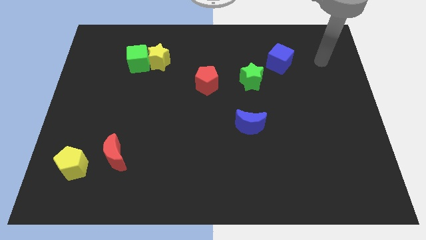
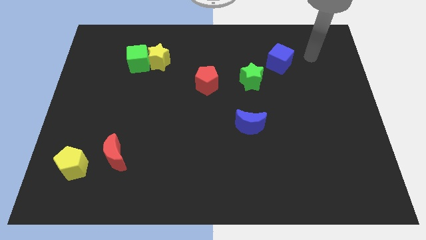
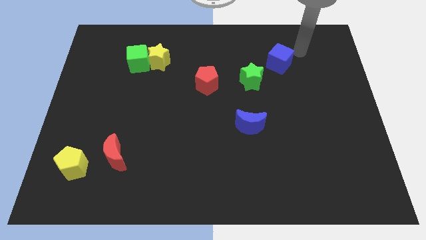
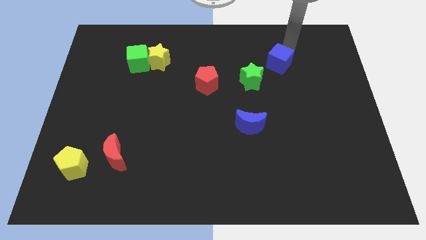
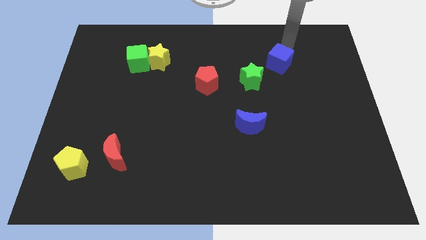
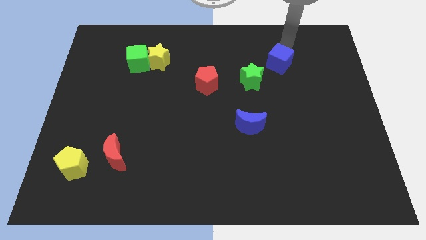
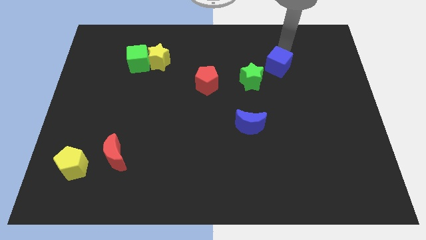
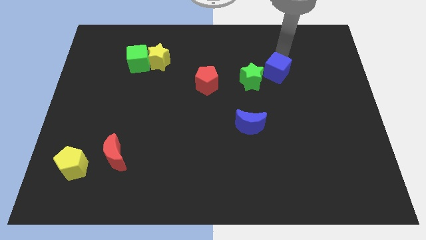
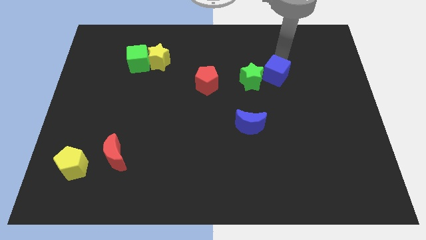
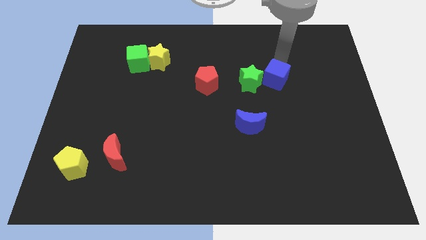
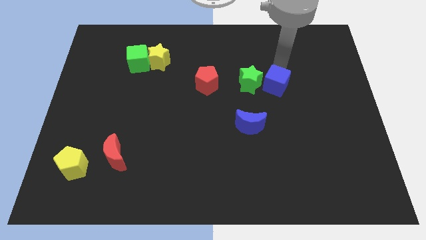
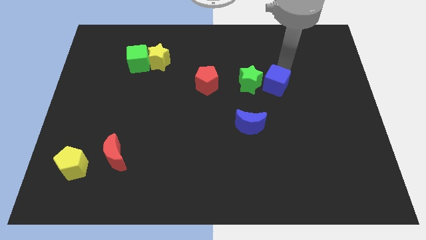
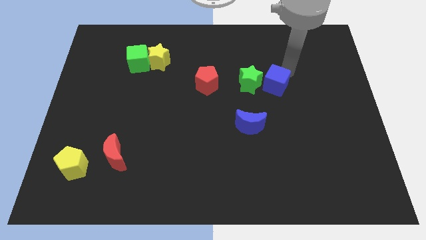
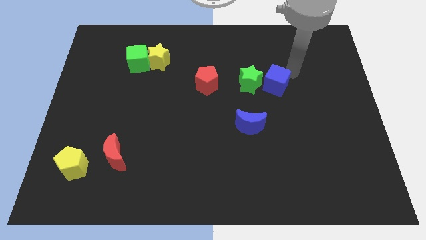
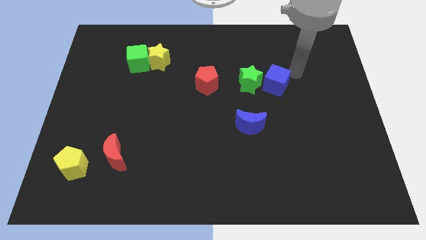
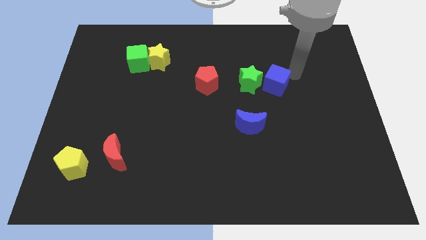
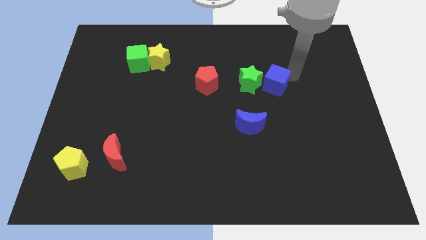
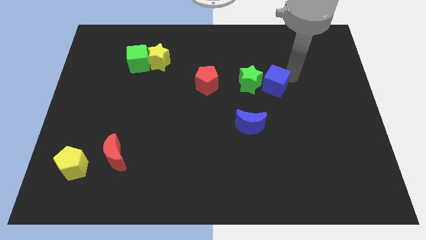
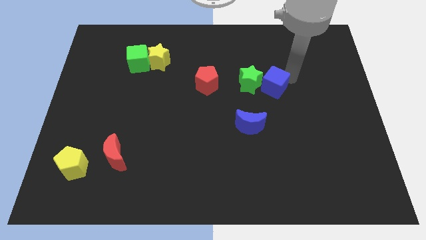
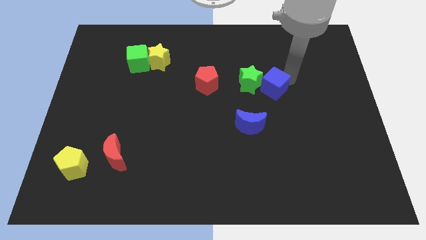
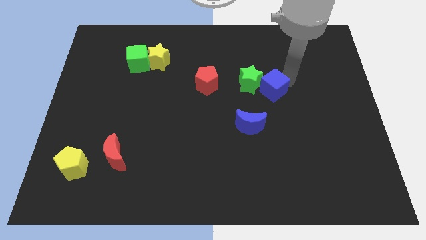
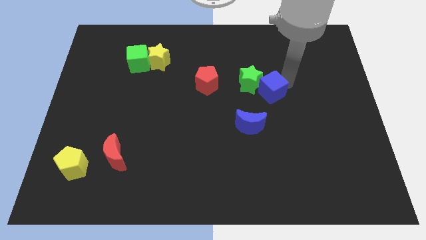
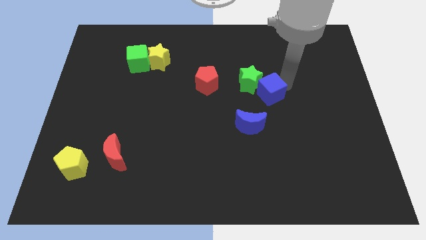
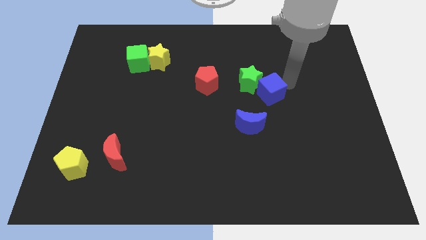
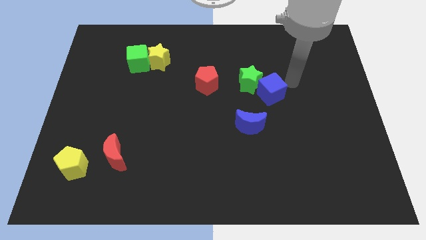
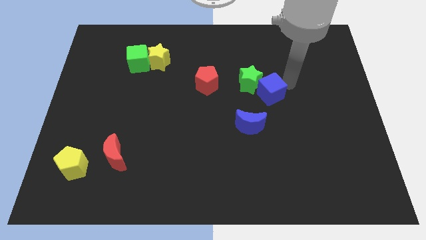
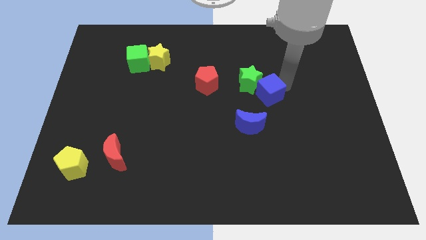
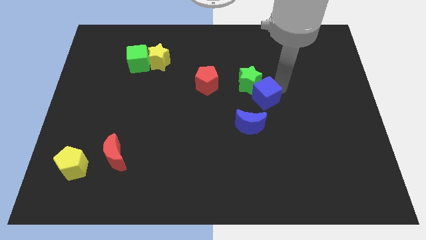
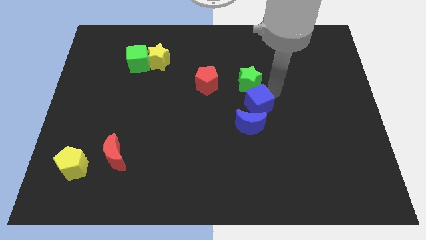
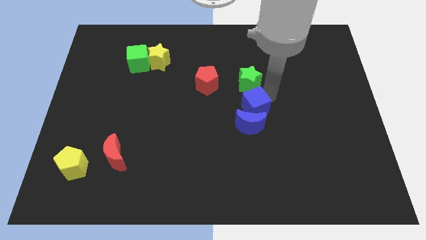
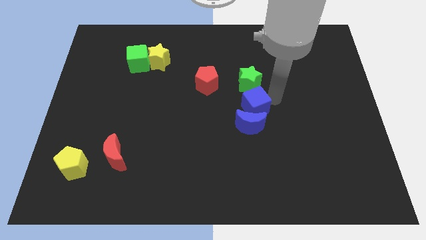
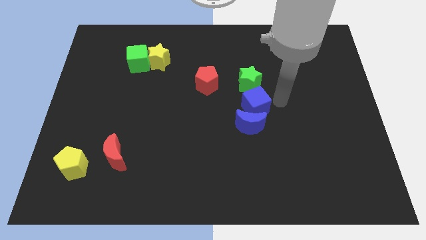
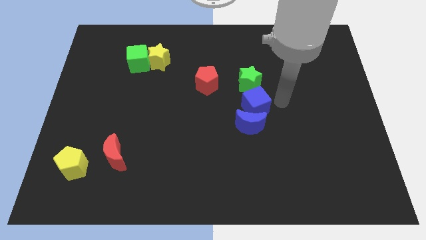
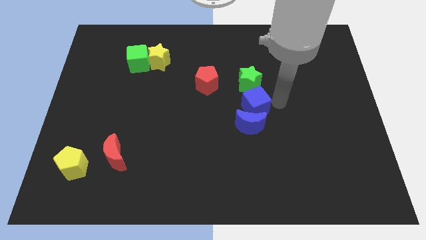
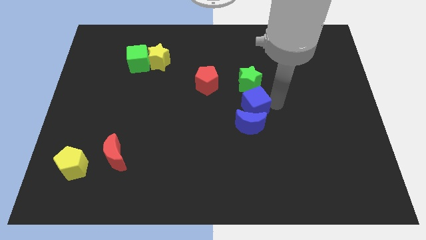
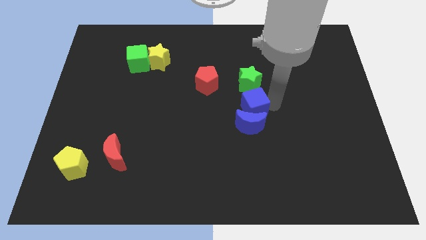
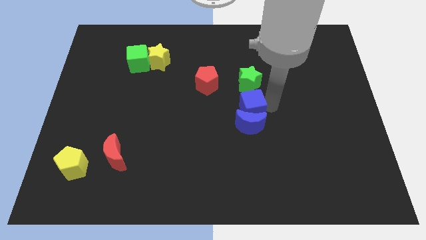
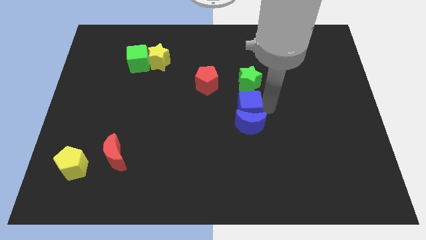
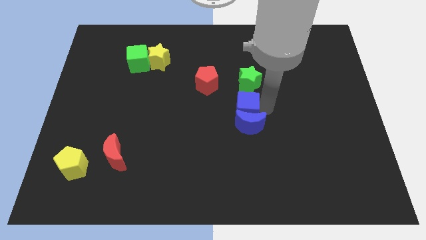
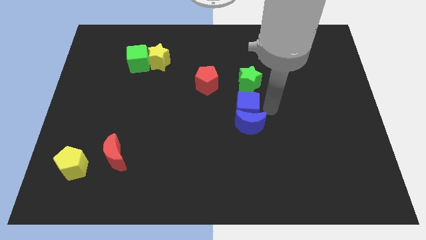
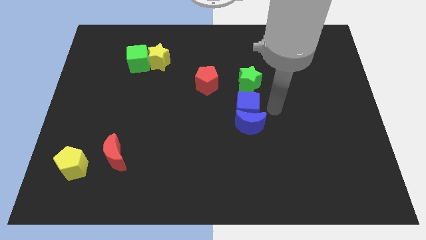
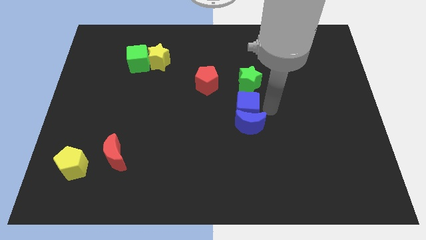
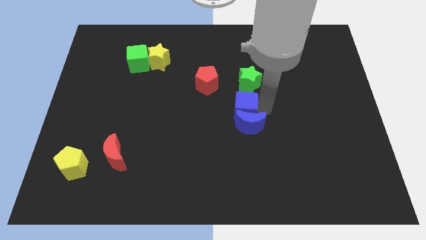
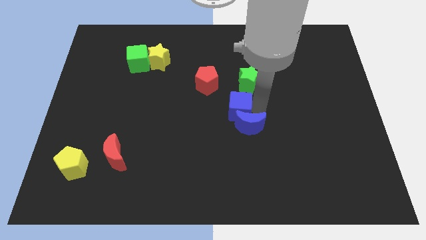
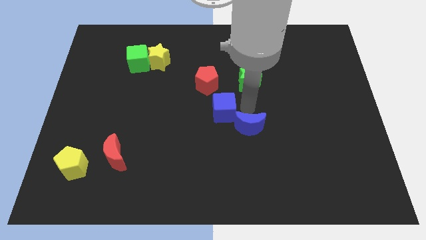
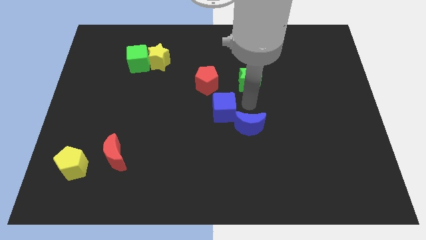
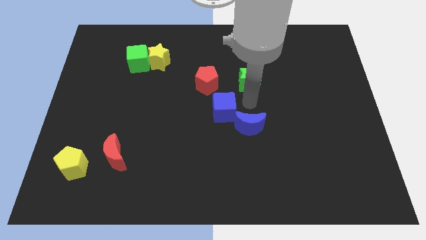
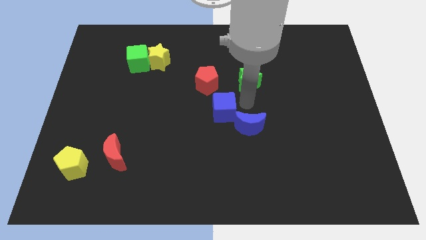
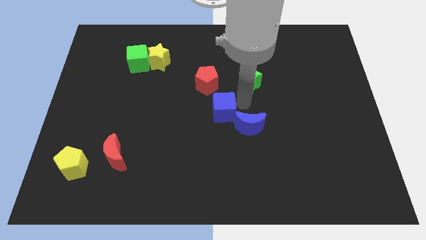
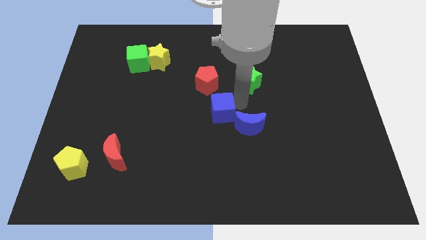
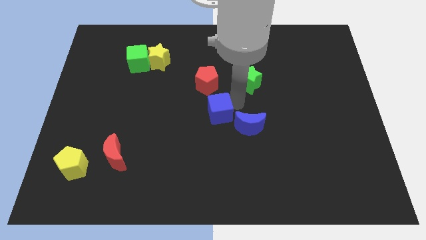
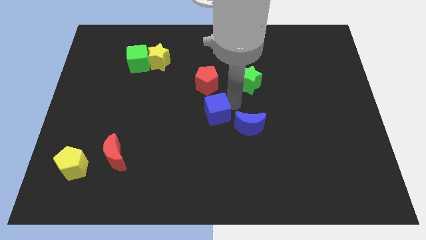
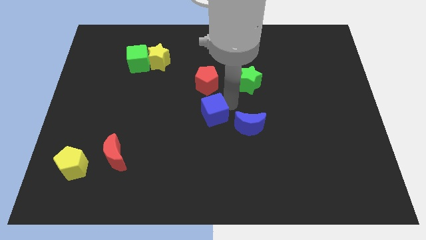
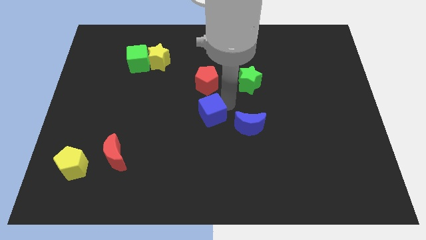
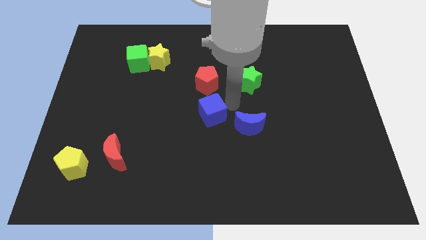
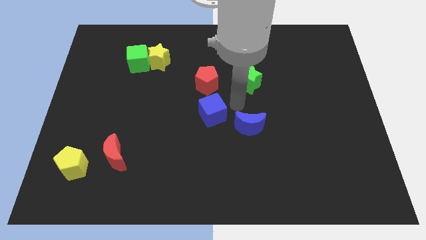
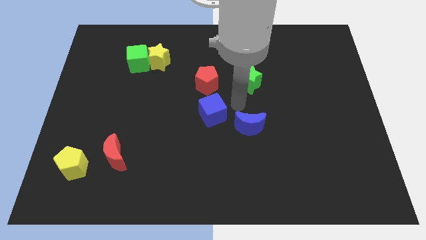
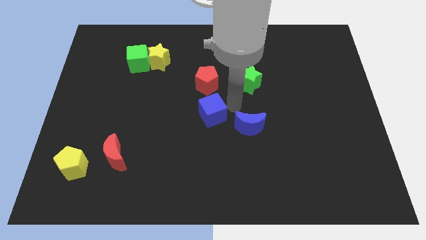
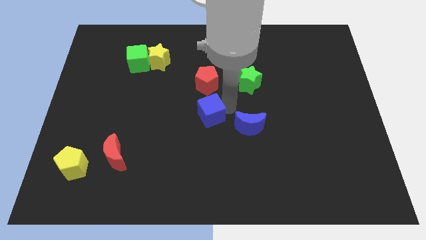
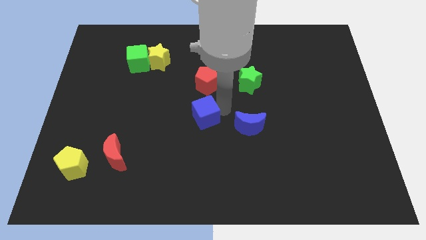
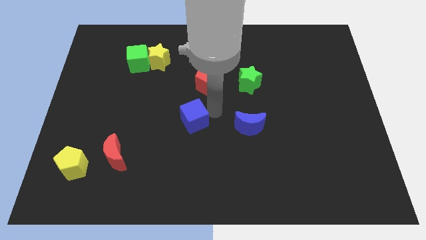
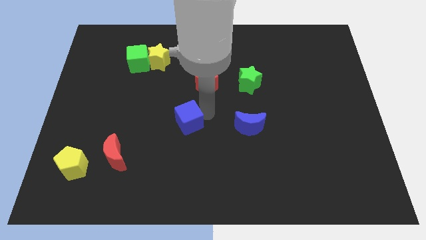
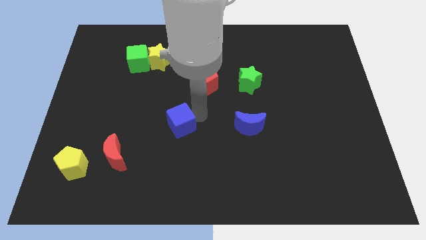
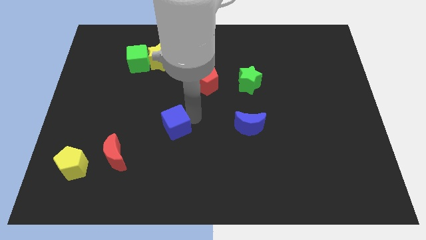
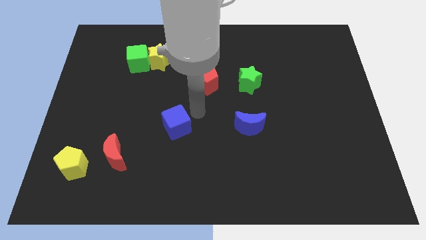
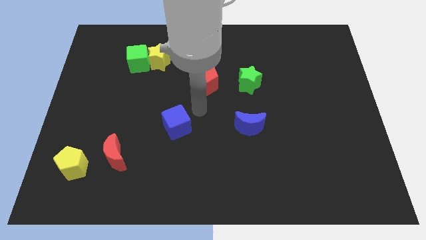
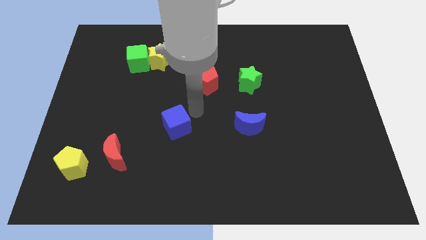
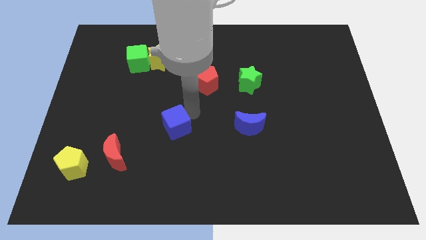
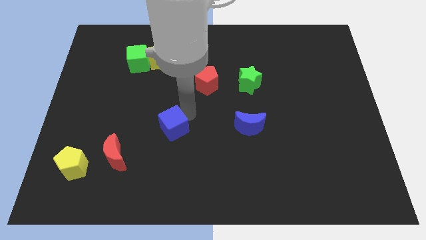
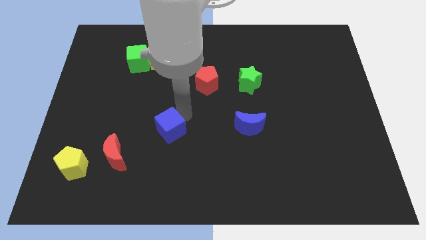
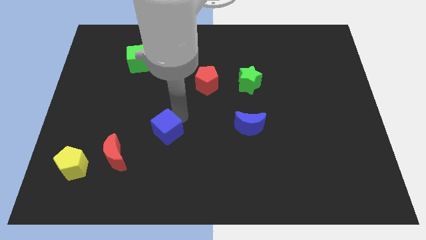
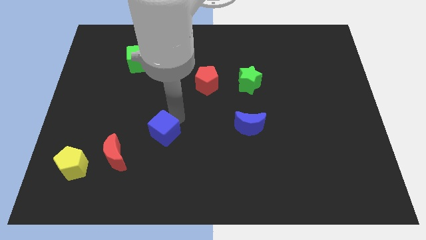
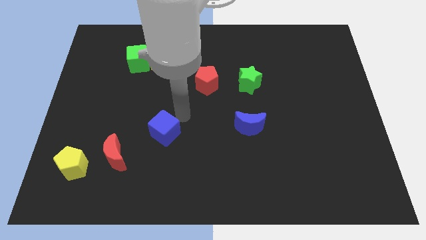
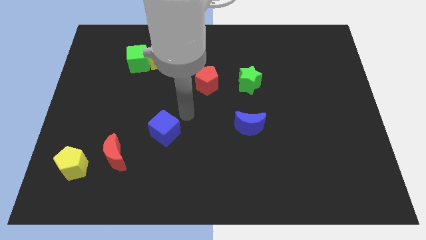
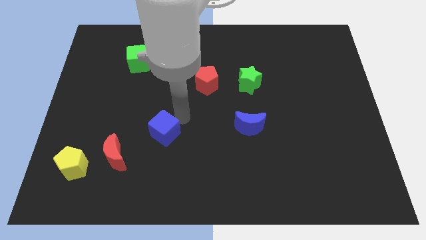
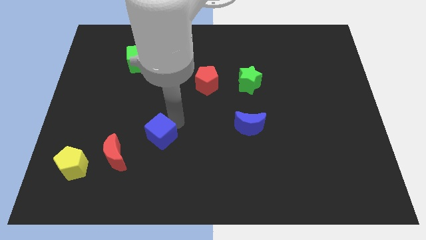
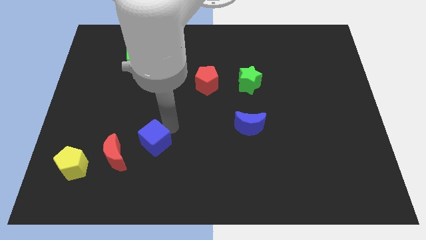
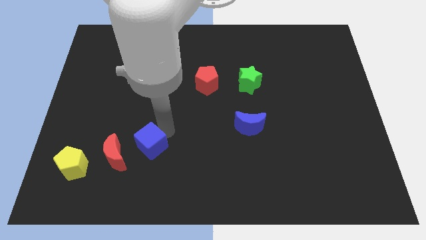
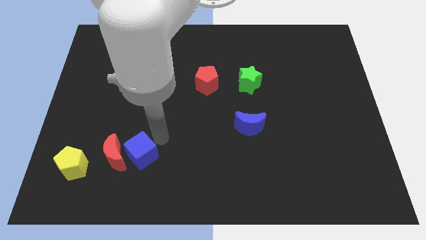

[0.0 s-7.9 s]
push the blue cube towards the red moon
